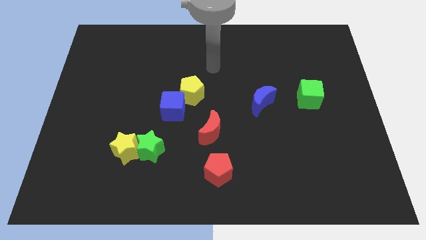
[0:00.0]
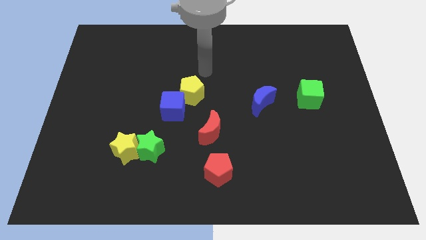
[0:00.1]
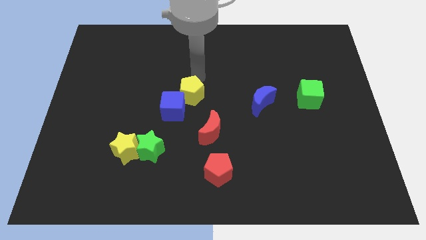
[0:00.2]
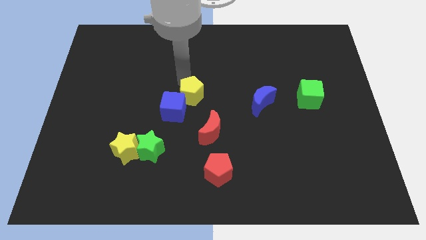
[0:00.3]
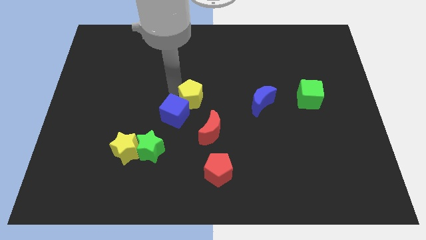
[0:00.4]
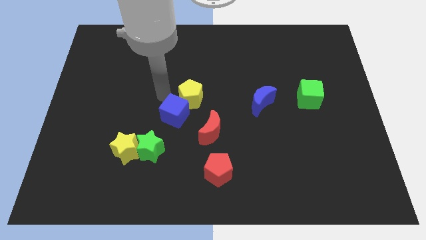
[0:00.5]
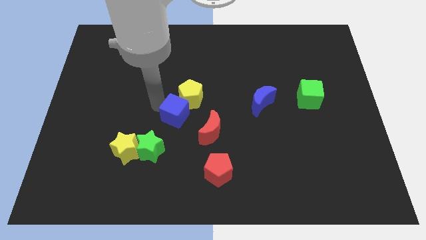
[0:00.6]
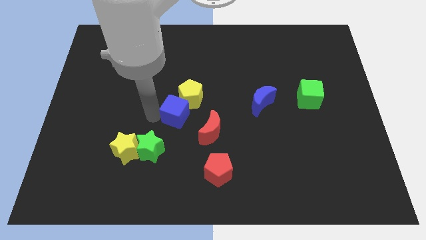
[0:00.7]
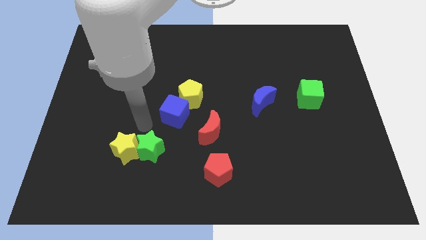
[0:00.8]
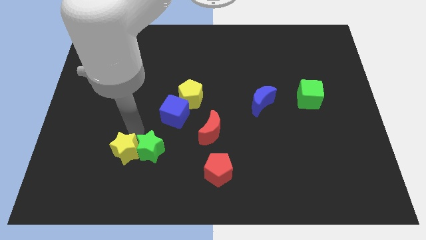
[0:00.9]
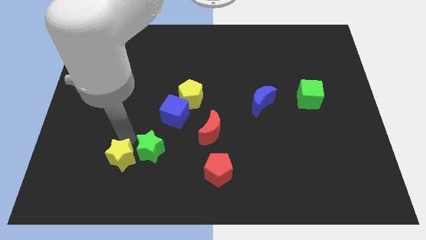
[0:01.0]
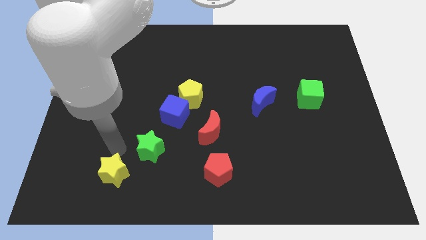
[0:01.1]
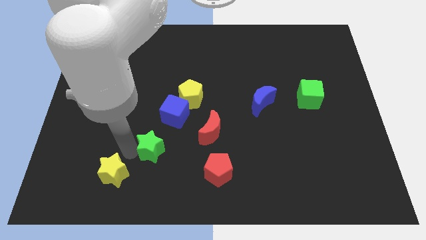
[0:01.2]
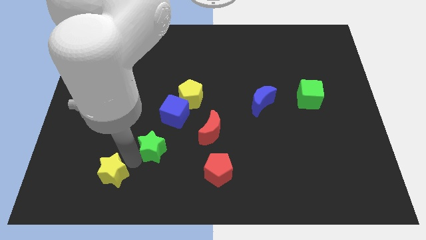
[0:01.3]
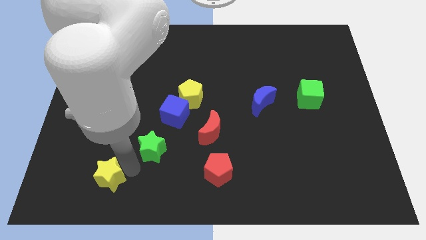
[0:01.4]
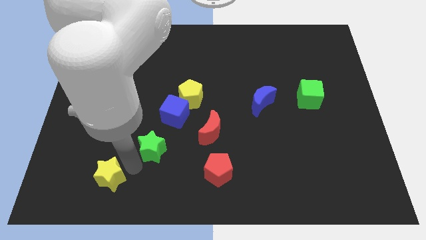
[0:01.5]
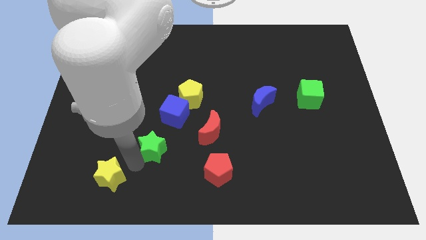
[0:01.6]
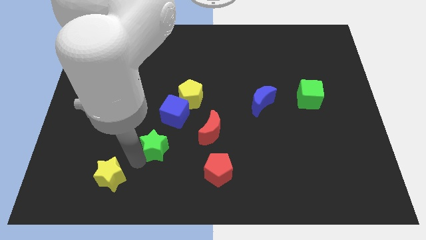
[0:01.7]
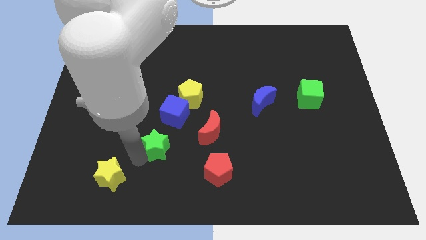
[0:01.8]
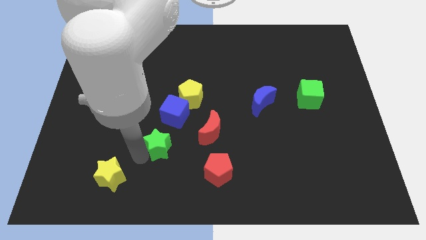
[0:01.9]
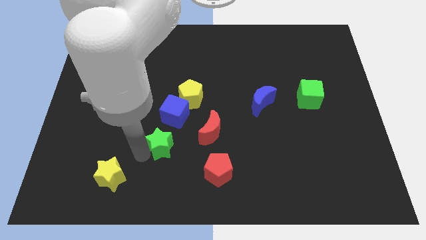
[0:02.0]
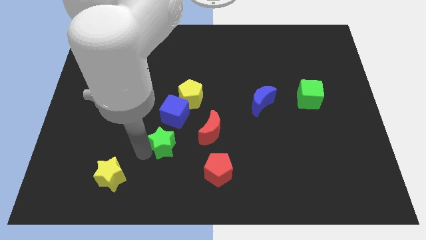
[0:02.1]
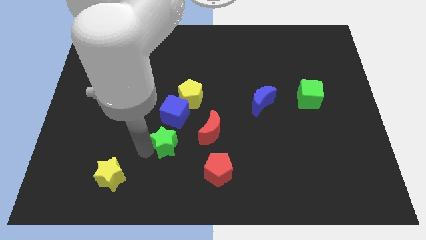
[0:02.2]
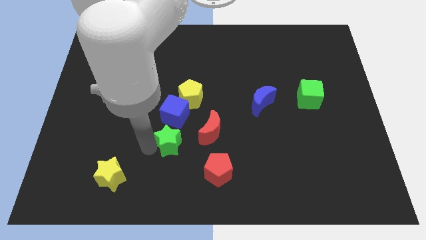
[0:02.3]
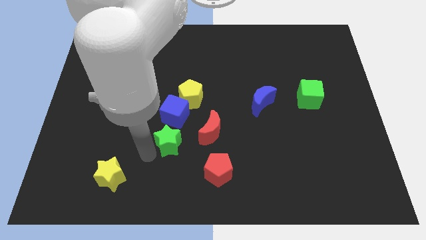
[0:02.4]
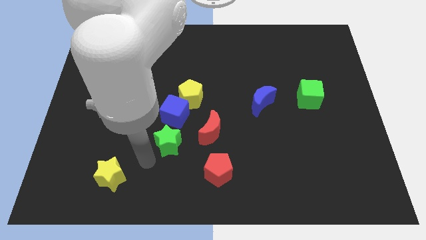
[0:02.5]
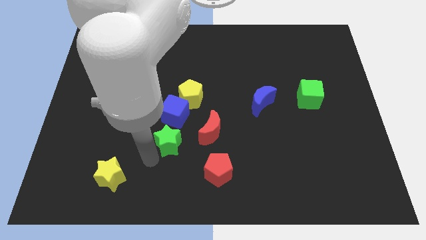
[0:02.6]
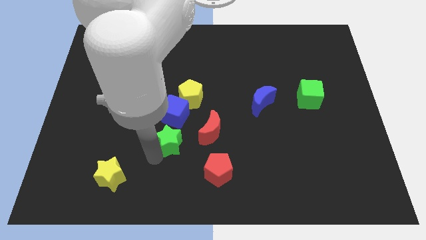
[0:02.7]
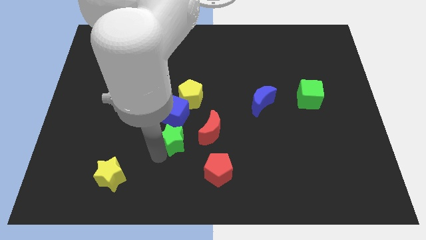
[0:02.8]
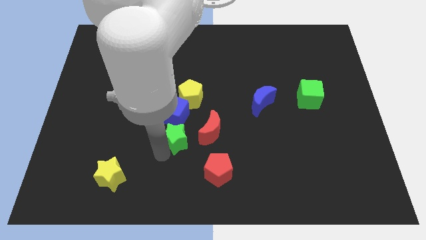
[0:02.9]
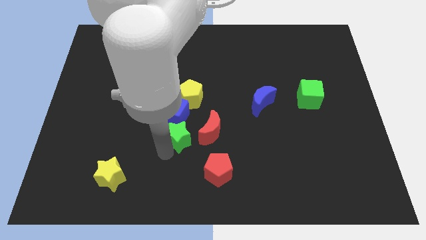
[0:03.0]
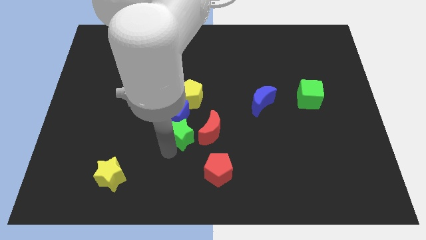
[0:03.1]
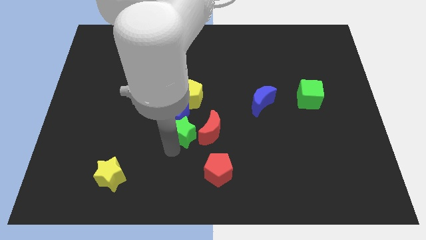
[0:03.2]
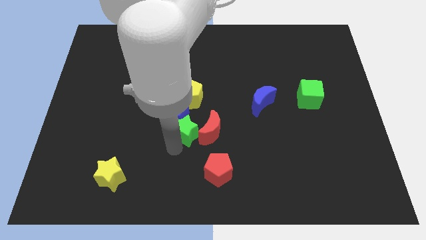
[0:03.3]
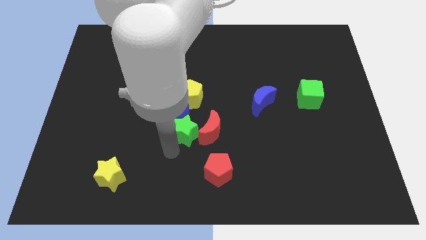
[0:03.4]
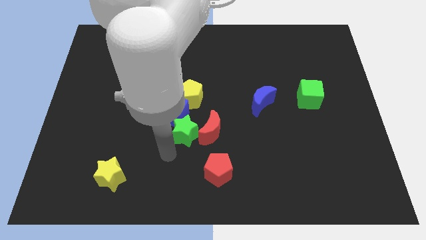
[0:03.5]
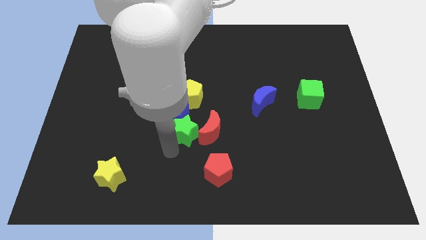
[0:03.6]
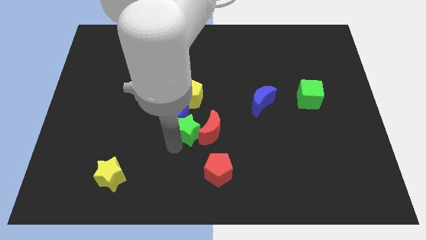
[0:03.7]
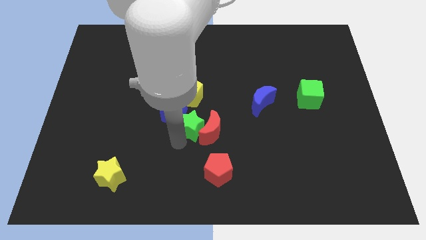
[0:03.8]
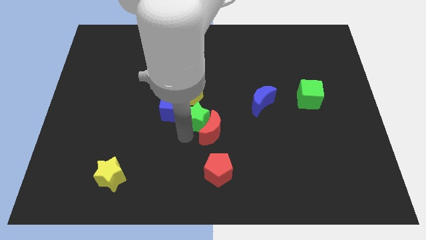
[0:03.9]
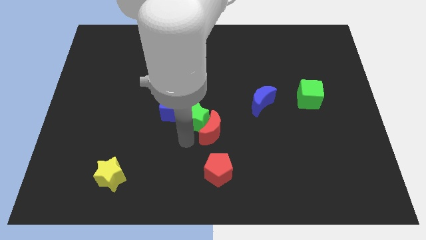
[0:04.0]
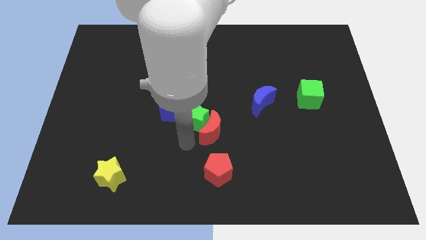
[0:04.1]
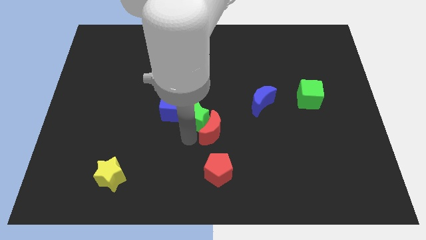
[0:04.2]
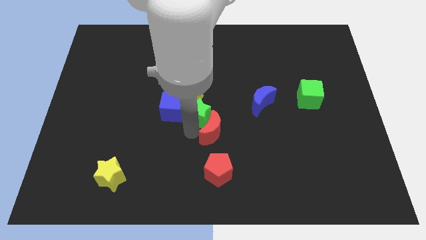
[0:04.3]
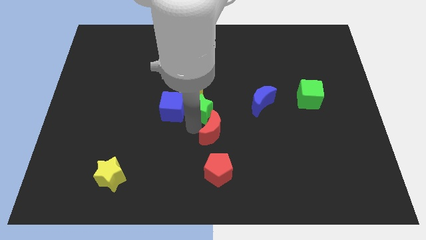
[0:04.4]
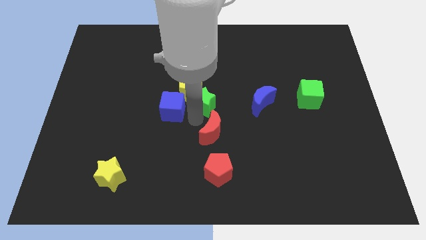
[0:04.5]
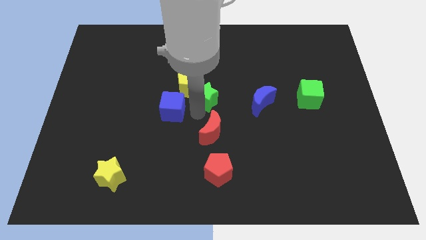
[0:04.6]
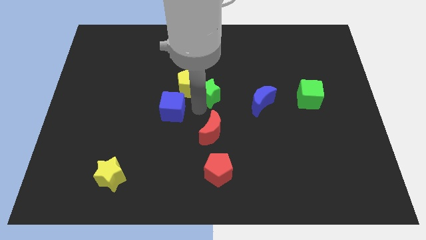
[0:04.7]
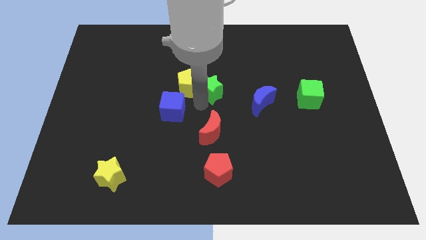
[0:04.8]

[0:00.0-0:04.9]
slide the green star upwards and then right

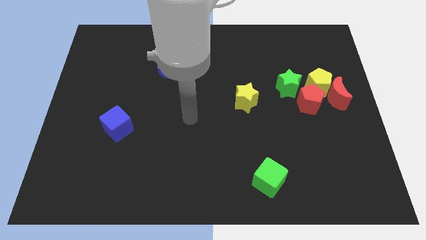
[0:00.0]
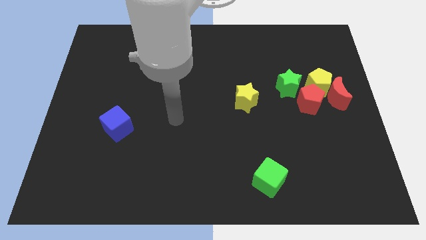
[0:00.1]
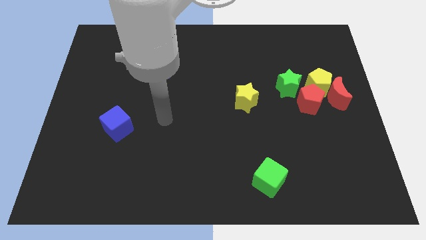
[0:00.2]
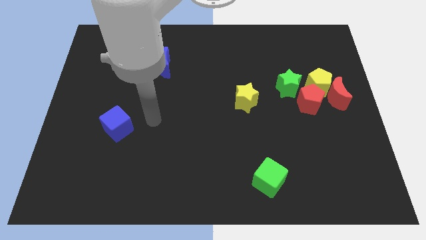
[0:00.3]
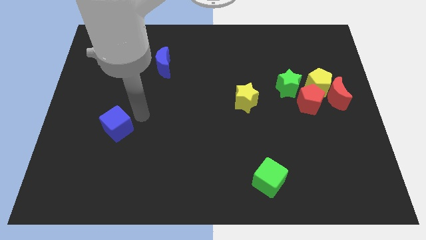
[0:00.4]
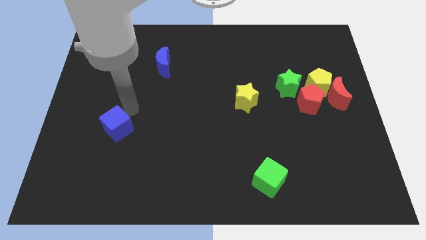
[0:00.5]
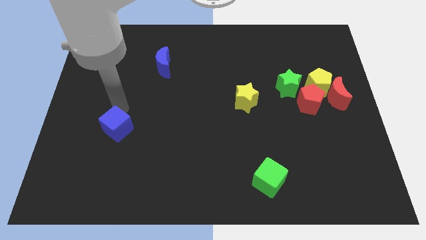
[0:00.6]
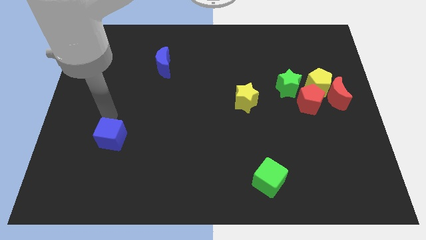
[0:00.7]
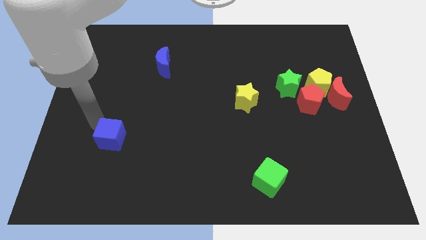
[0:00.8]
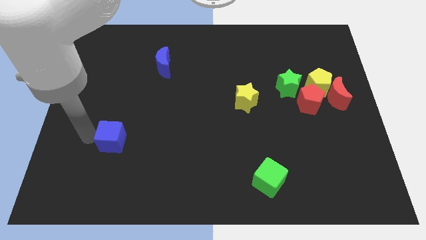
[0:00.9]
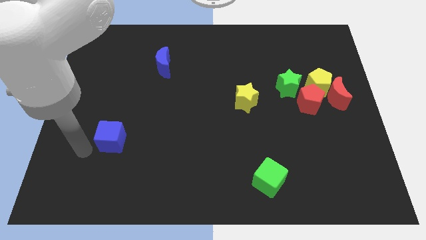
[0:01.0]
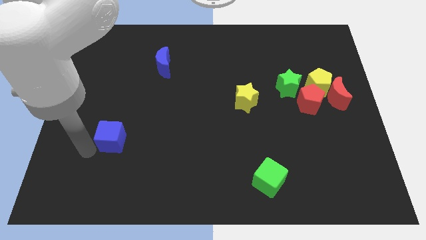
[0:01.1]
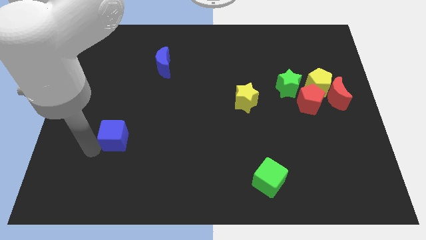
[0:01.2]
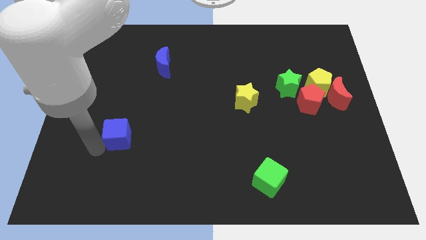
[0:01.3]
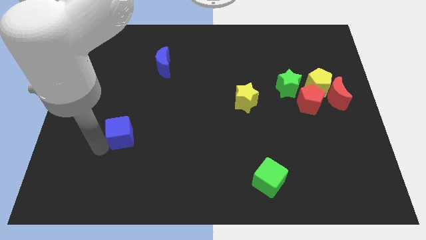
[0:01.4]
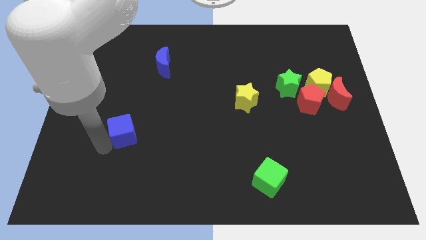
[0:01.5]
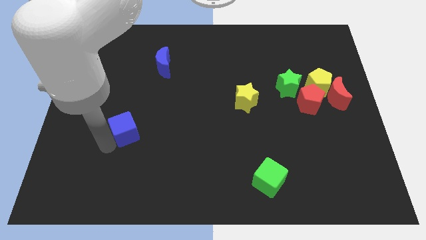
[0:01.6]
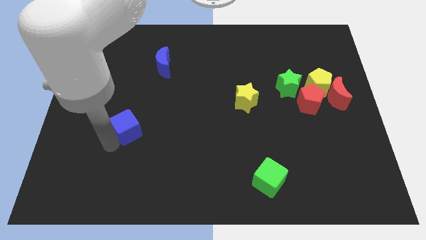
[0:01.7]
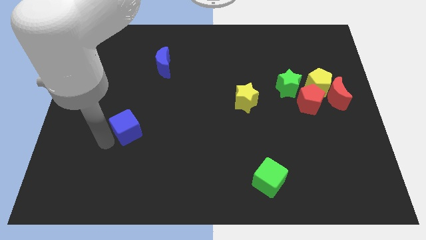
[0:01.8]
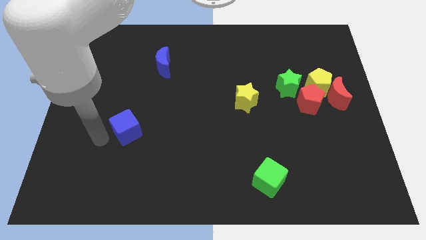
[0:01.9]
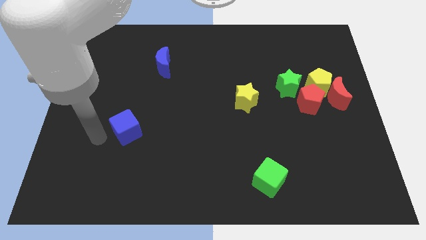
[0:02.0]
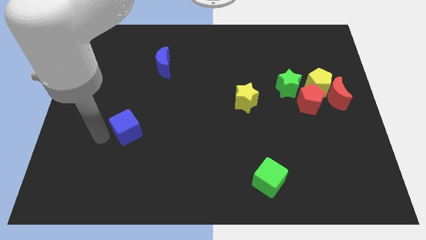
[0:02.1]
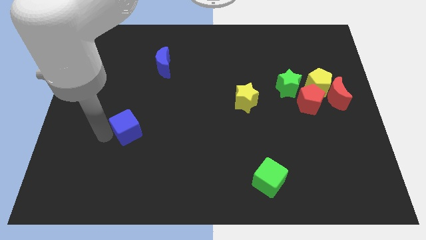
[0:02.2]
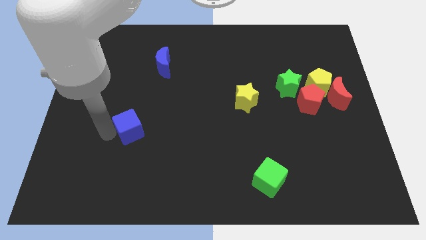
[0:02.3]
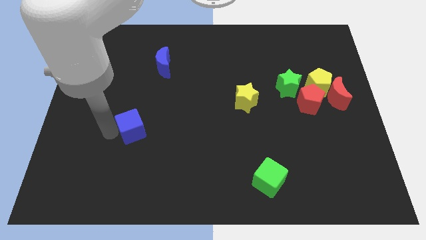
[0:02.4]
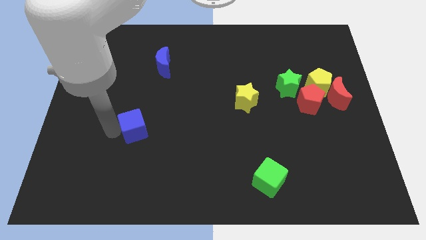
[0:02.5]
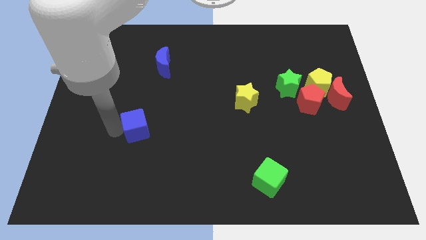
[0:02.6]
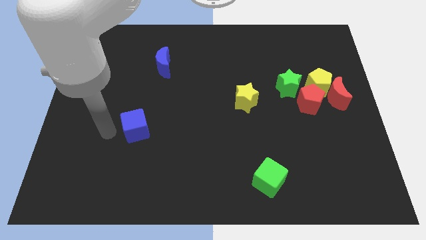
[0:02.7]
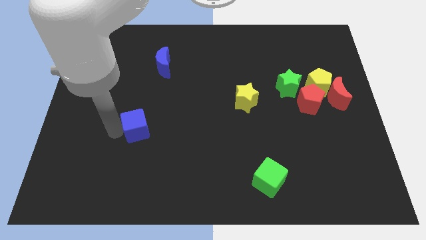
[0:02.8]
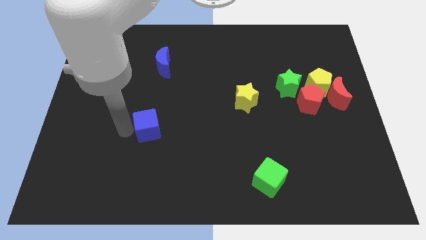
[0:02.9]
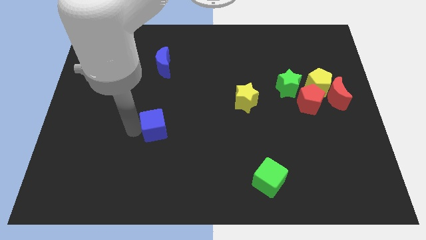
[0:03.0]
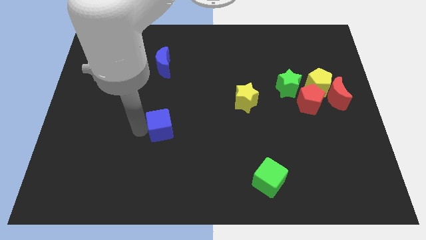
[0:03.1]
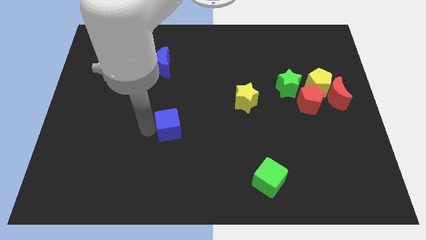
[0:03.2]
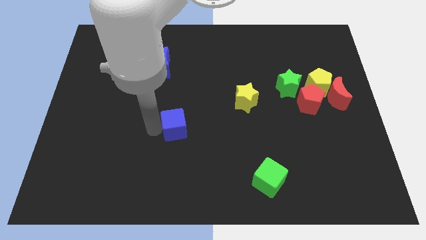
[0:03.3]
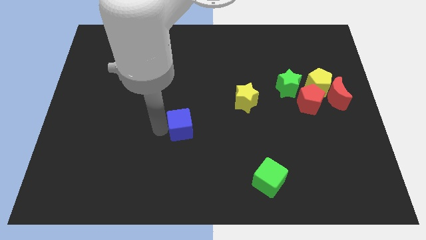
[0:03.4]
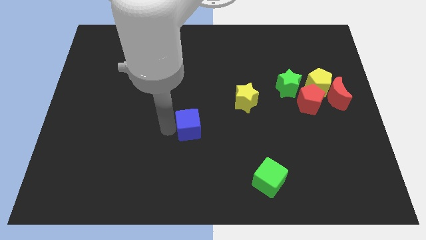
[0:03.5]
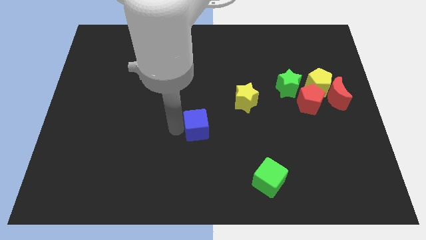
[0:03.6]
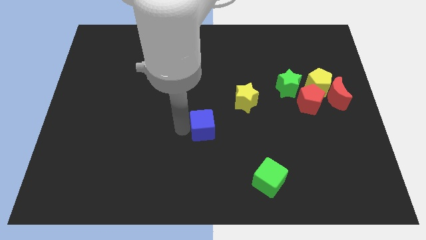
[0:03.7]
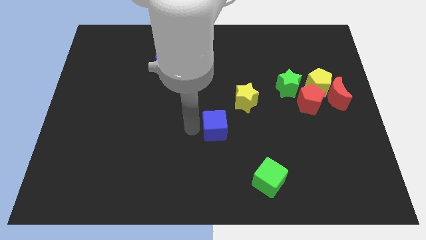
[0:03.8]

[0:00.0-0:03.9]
move the blue cube to the right
